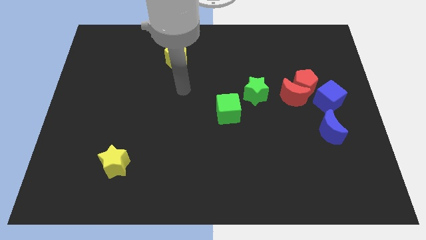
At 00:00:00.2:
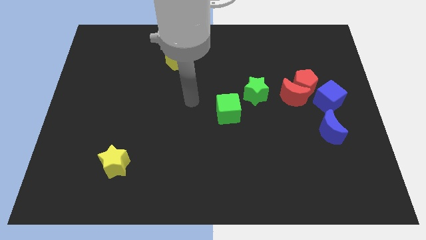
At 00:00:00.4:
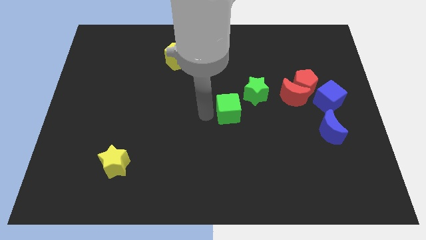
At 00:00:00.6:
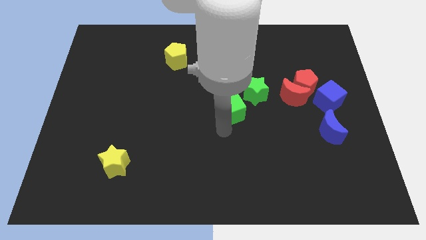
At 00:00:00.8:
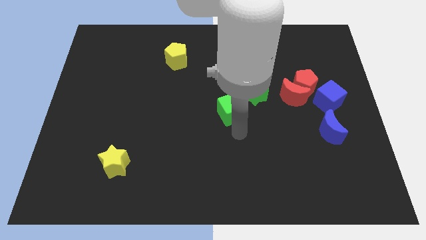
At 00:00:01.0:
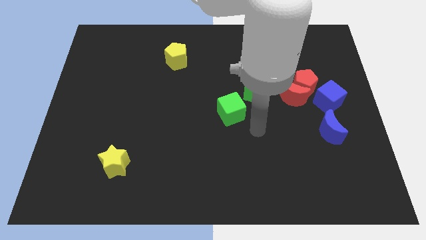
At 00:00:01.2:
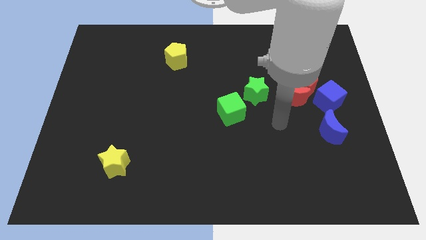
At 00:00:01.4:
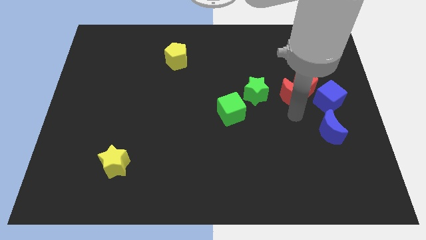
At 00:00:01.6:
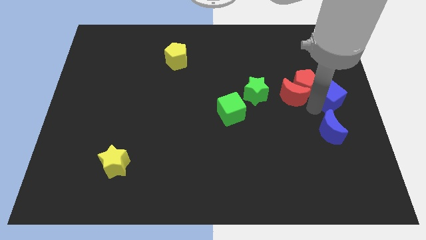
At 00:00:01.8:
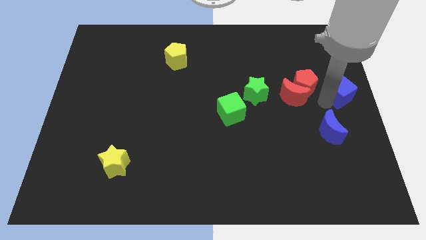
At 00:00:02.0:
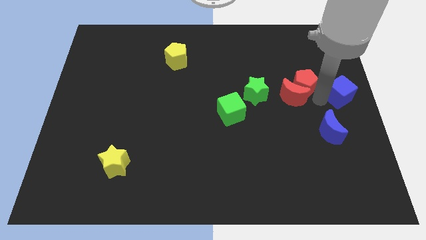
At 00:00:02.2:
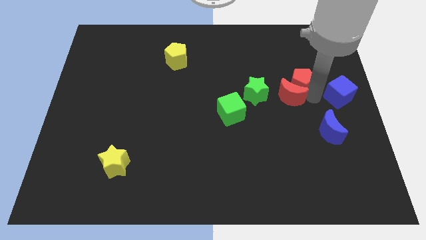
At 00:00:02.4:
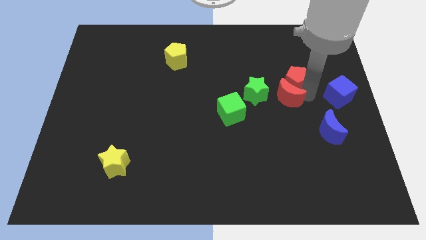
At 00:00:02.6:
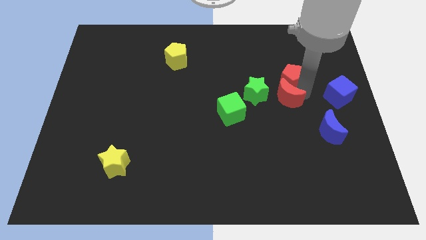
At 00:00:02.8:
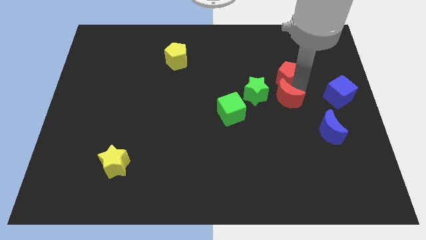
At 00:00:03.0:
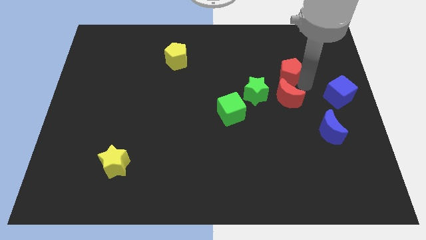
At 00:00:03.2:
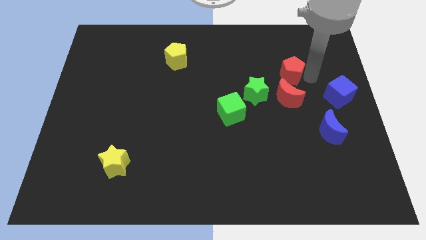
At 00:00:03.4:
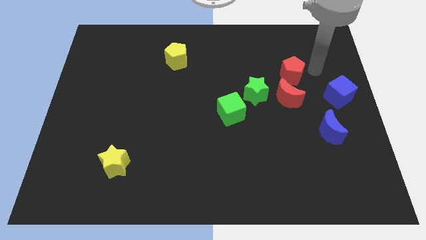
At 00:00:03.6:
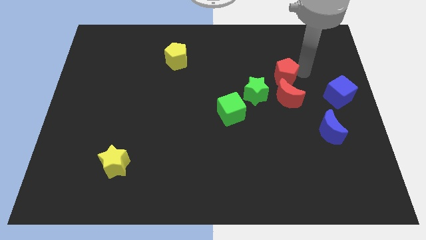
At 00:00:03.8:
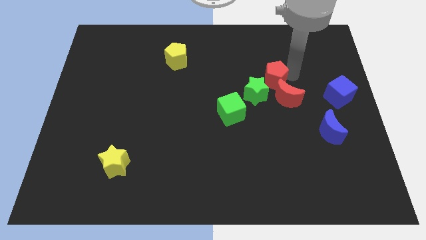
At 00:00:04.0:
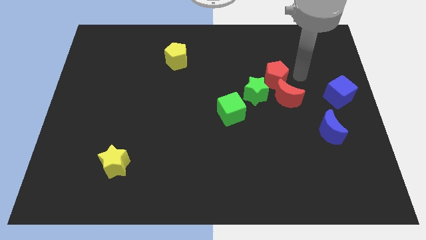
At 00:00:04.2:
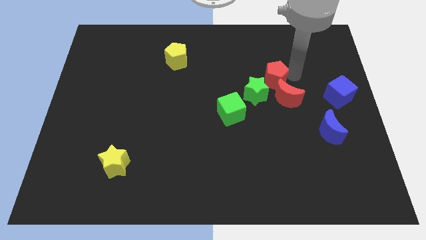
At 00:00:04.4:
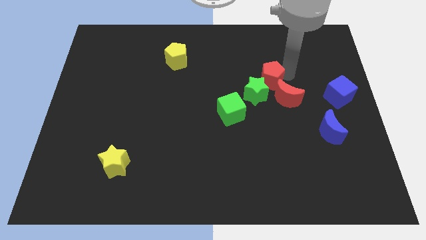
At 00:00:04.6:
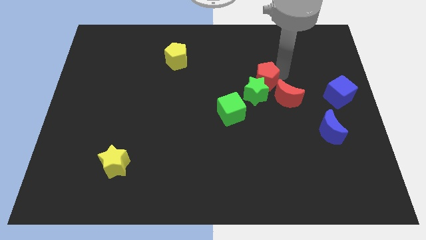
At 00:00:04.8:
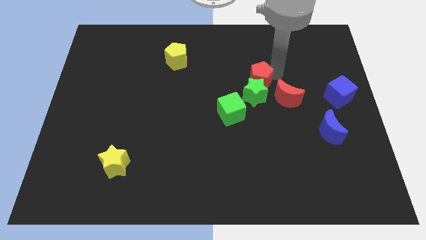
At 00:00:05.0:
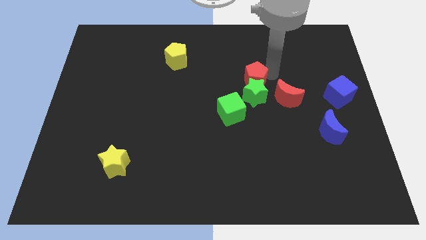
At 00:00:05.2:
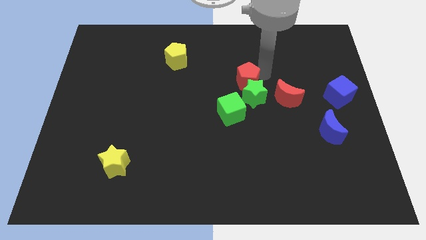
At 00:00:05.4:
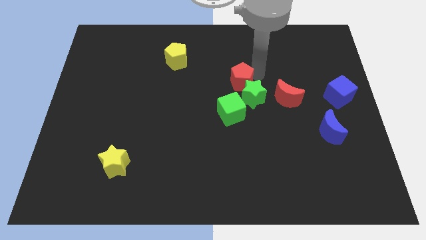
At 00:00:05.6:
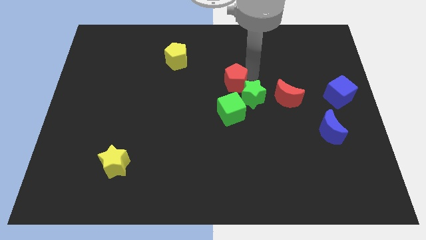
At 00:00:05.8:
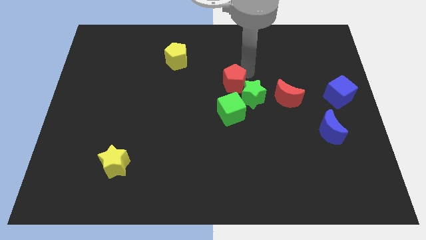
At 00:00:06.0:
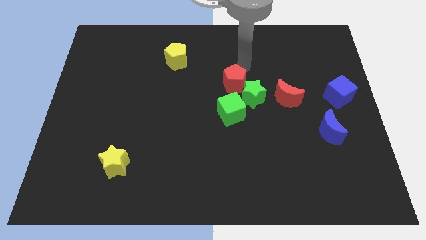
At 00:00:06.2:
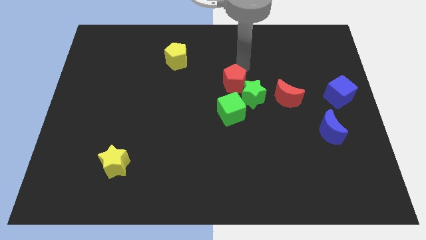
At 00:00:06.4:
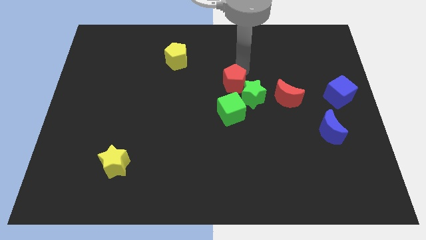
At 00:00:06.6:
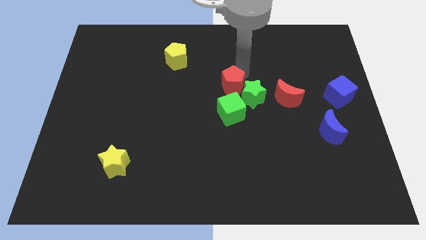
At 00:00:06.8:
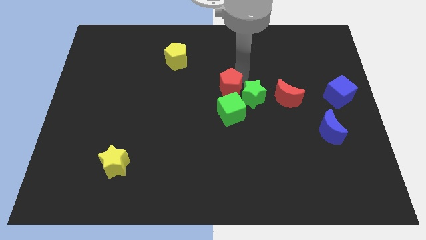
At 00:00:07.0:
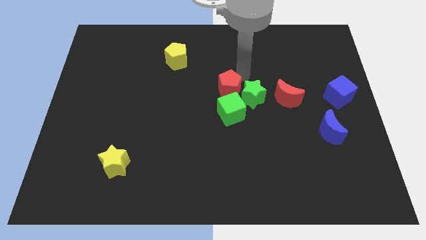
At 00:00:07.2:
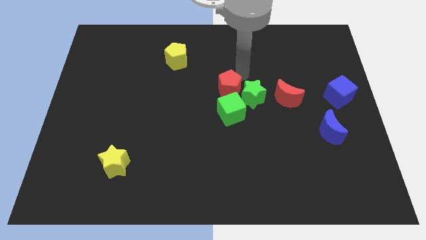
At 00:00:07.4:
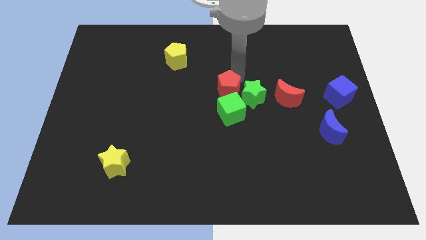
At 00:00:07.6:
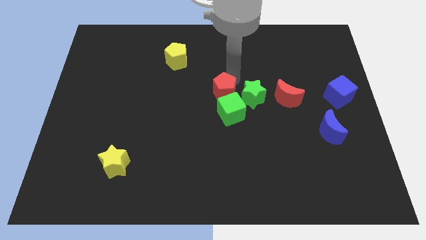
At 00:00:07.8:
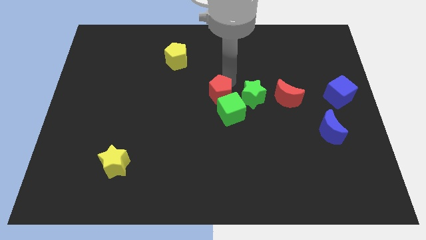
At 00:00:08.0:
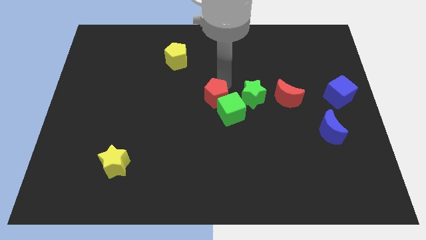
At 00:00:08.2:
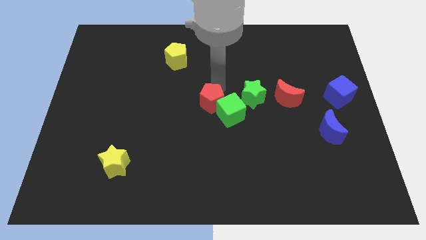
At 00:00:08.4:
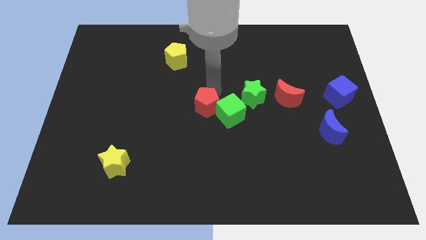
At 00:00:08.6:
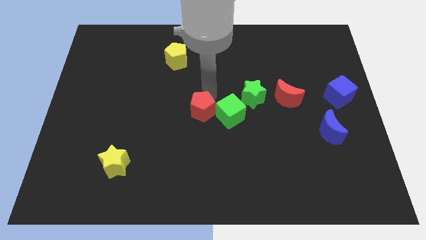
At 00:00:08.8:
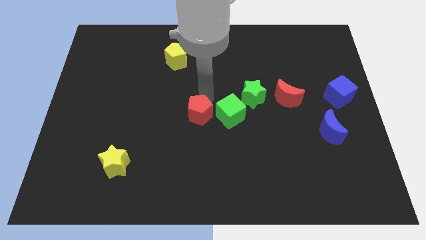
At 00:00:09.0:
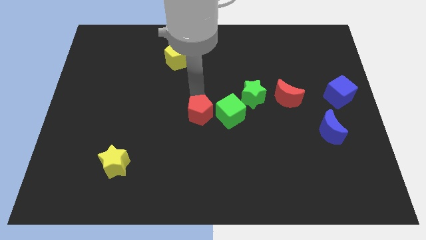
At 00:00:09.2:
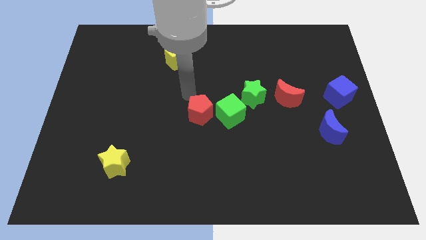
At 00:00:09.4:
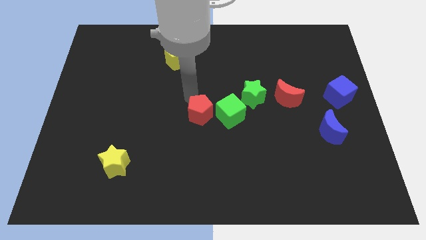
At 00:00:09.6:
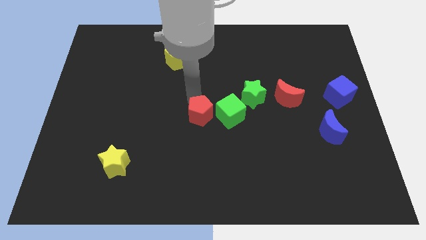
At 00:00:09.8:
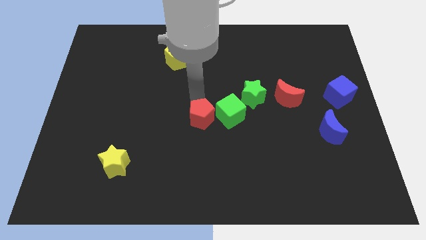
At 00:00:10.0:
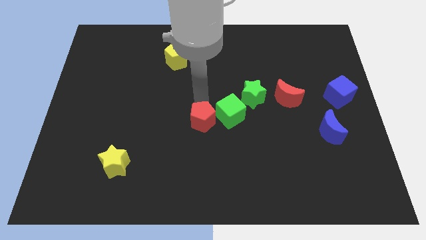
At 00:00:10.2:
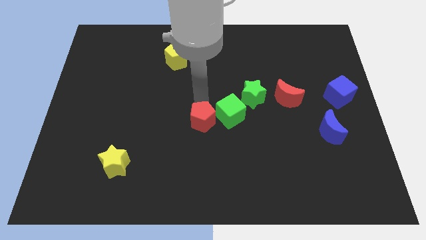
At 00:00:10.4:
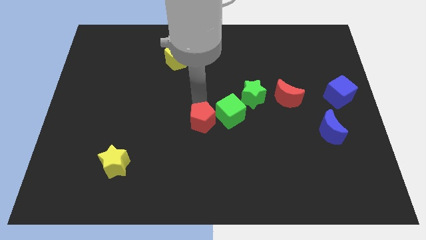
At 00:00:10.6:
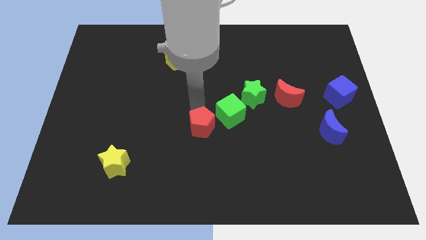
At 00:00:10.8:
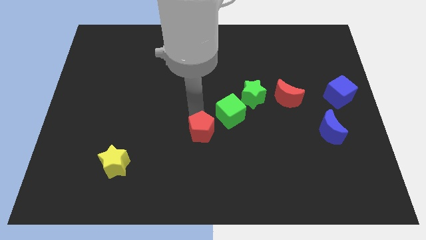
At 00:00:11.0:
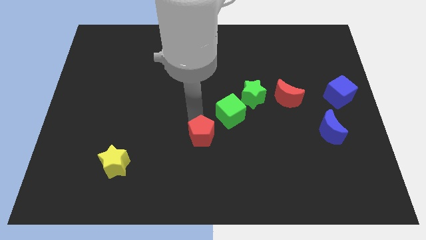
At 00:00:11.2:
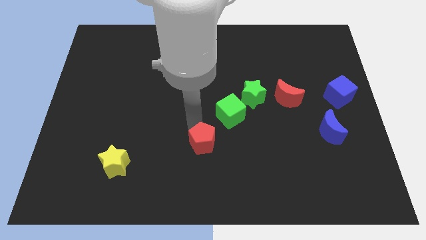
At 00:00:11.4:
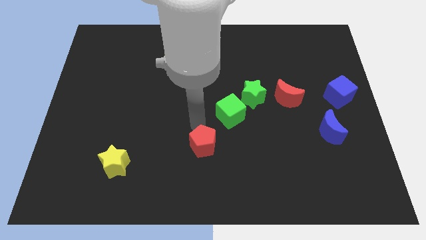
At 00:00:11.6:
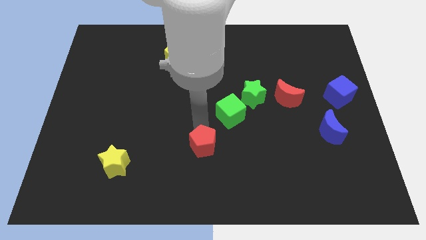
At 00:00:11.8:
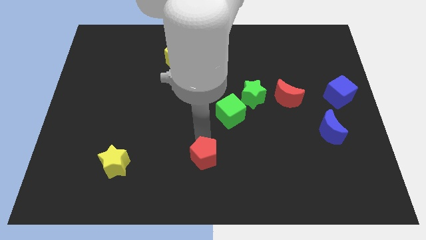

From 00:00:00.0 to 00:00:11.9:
put the red pentagon to the bottom
